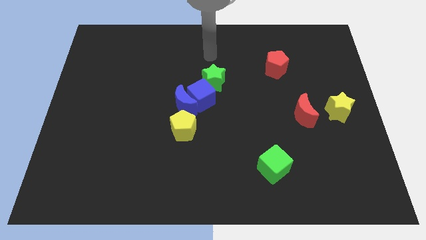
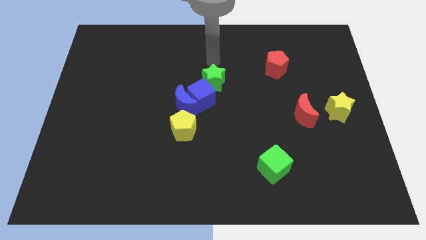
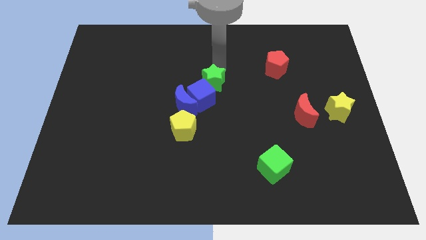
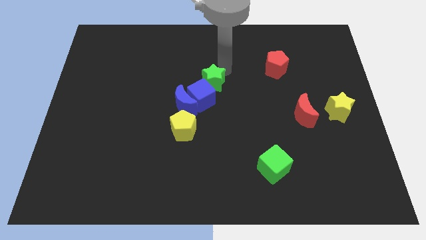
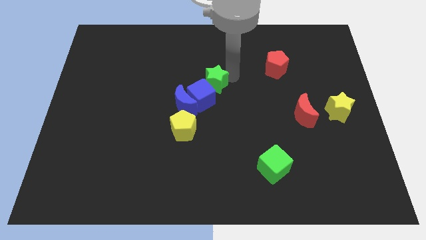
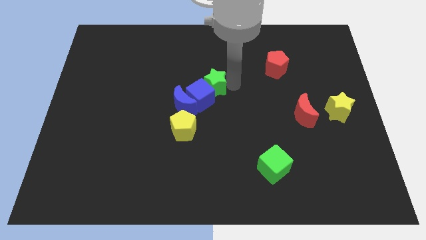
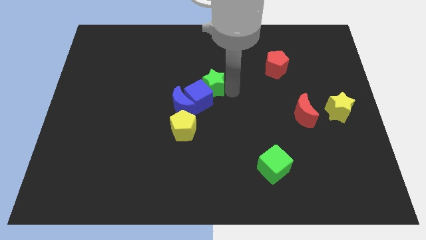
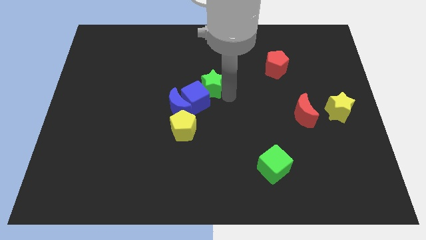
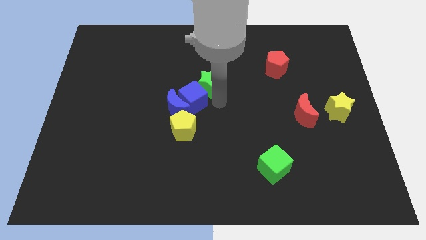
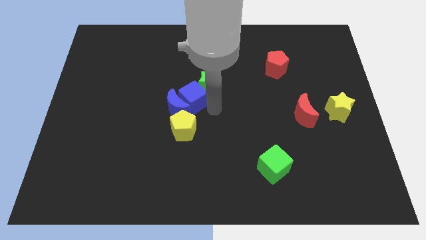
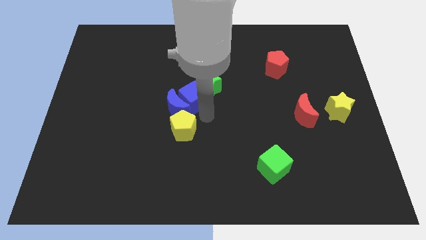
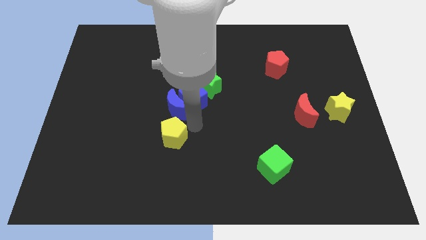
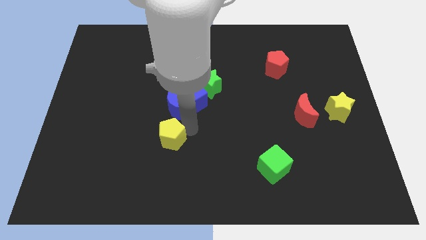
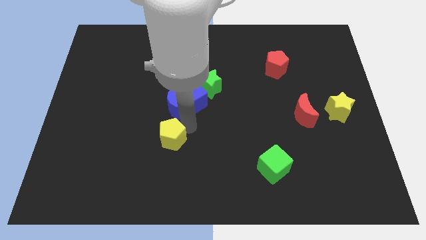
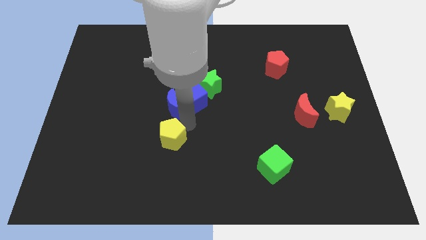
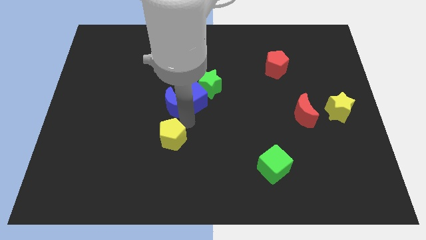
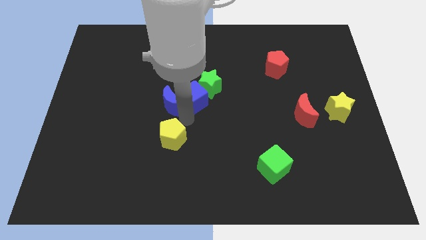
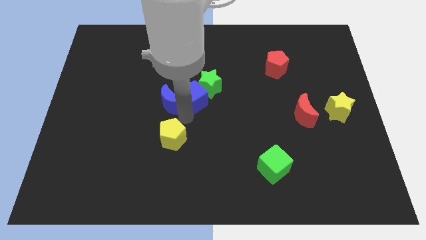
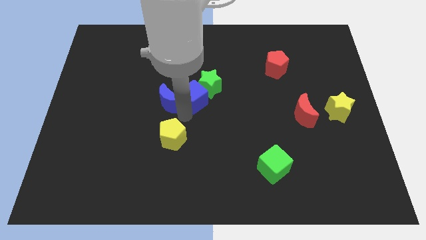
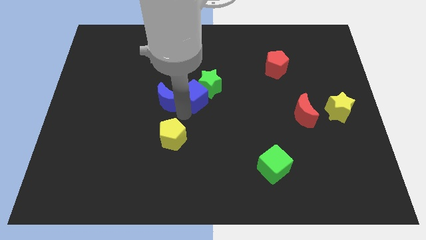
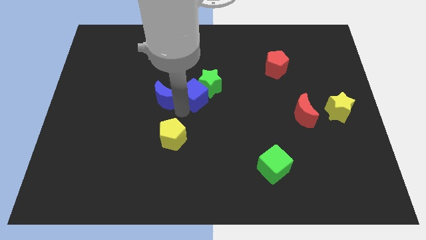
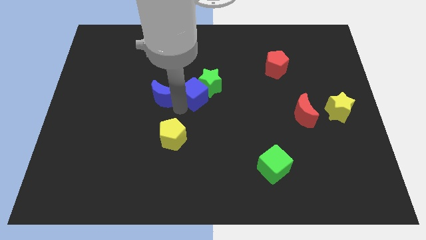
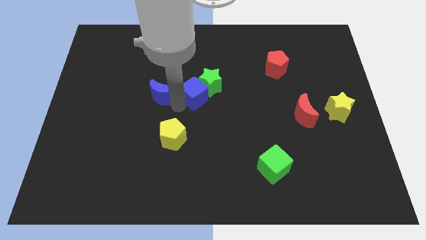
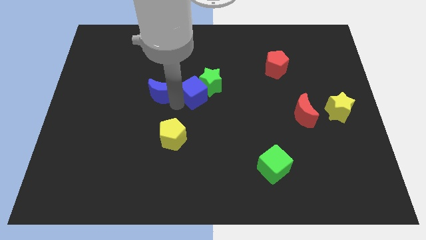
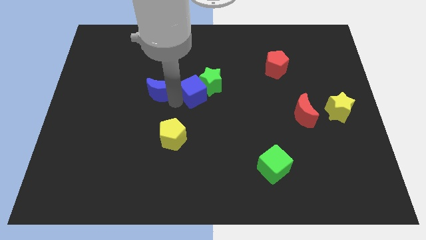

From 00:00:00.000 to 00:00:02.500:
push the blue moon up and to the left a little

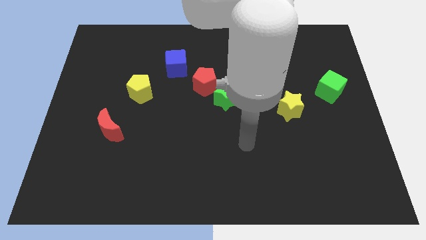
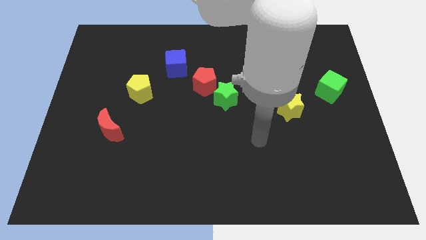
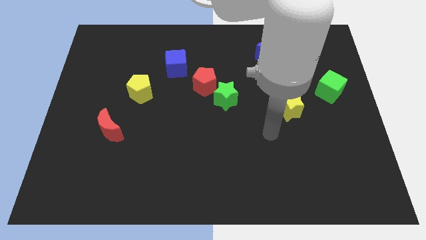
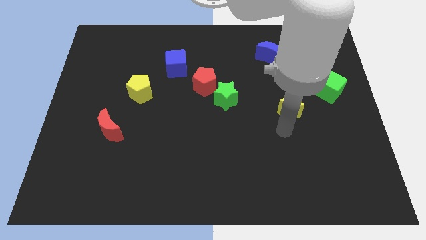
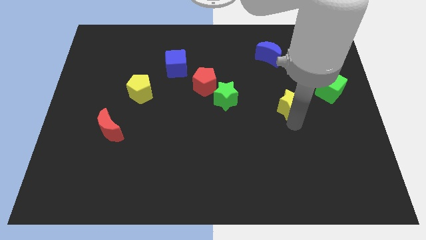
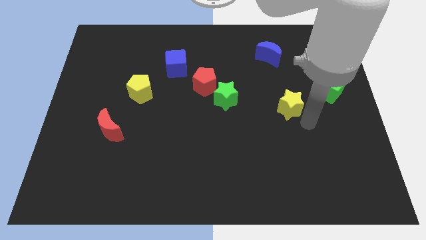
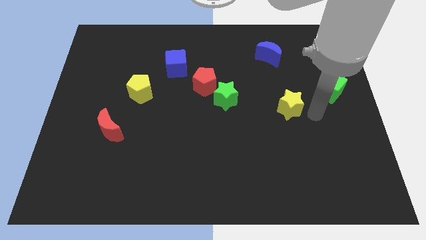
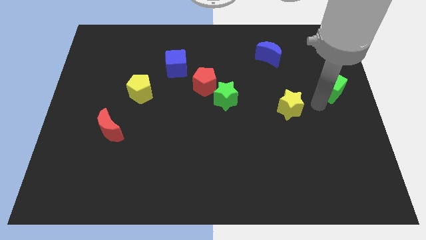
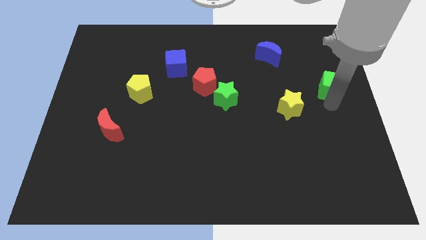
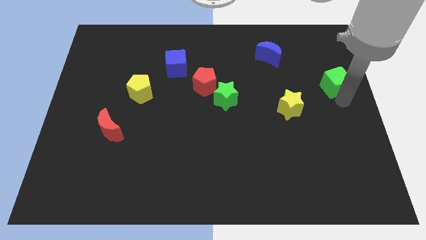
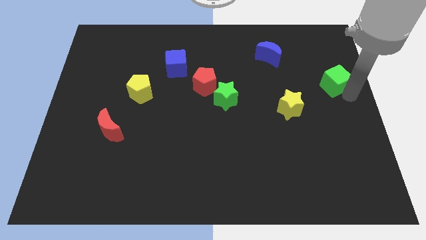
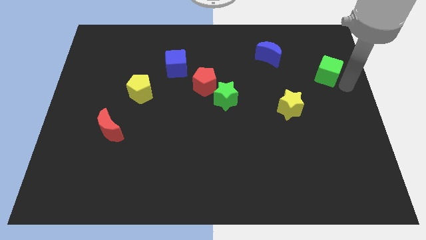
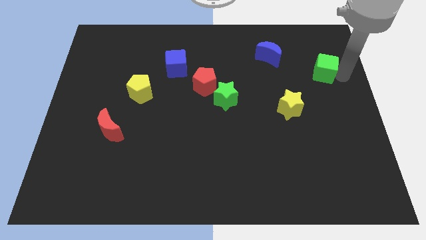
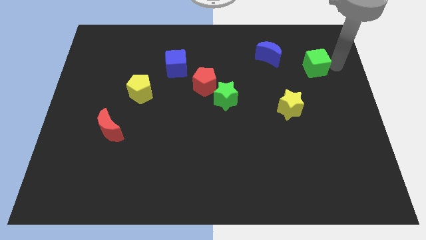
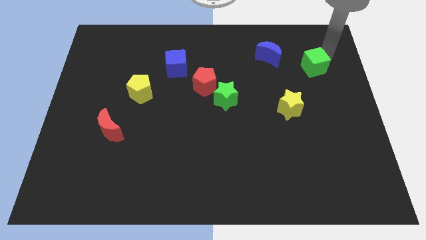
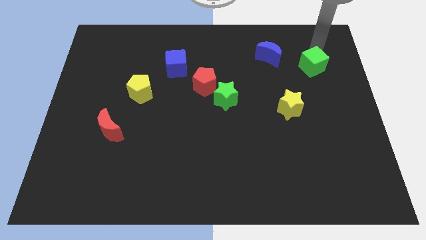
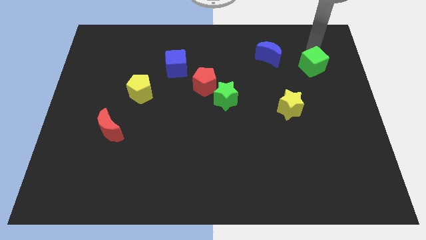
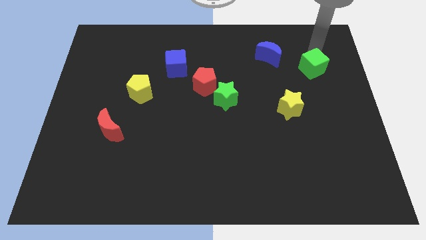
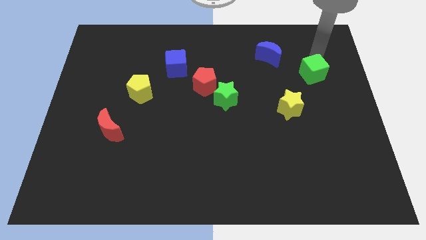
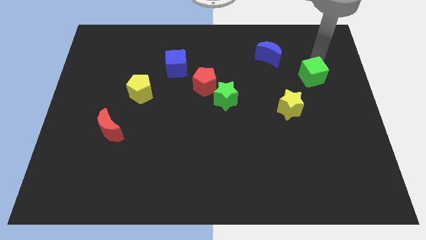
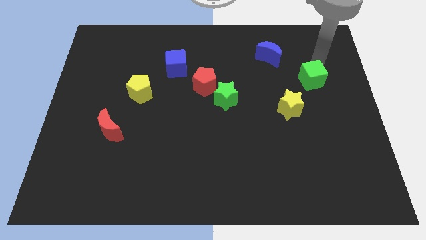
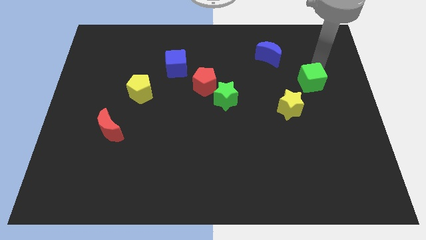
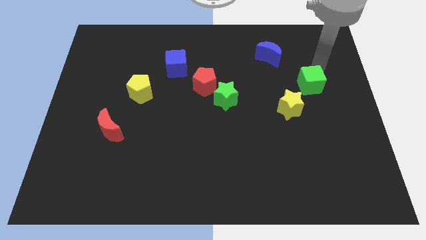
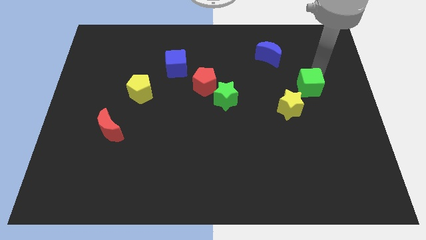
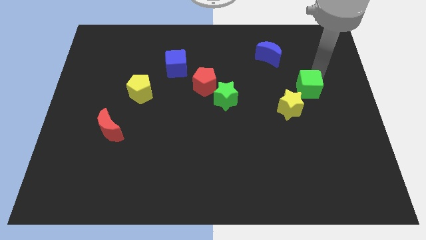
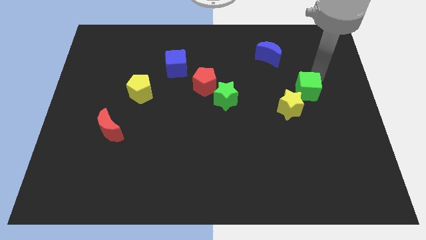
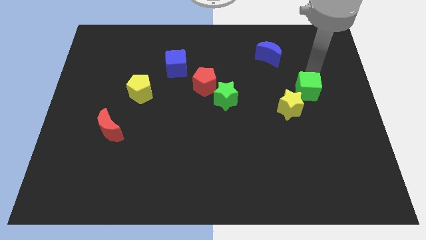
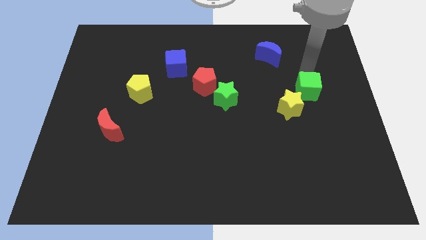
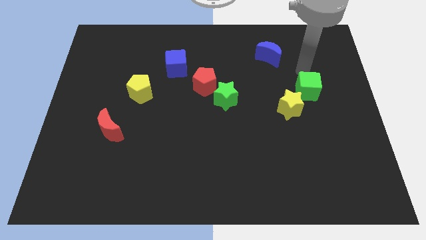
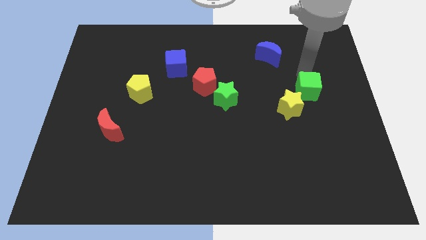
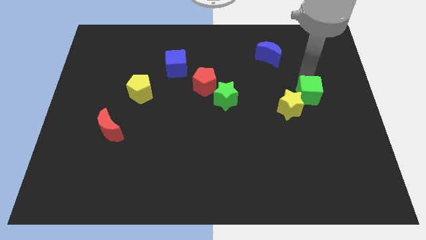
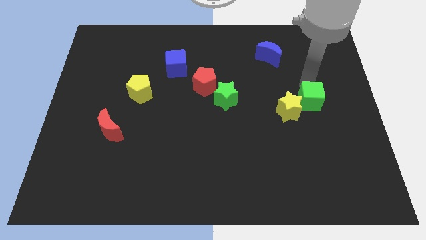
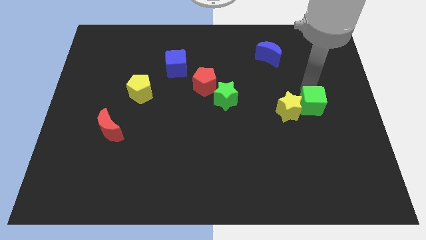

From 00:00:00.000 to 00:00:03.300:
push the green cube somewhat down and then to the left

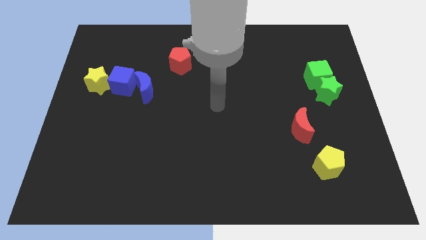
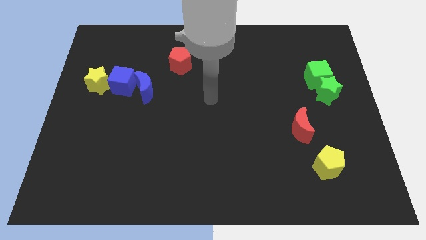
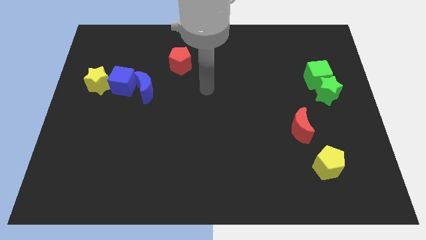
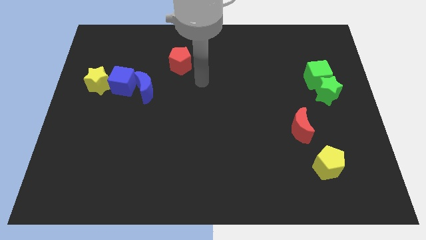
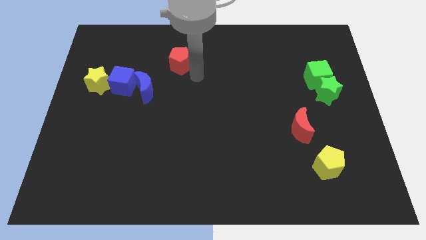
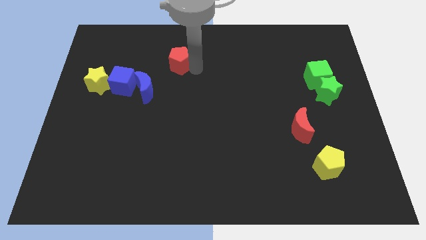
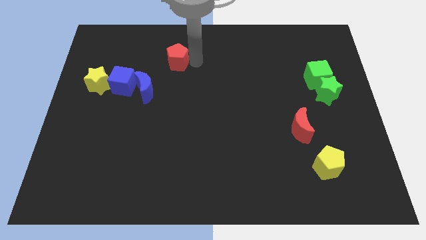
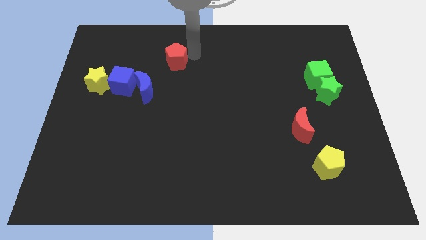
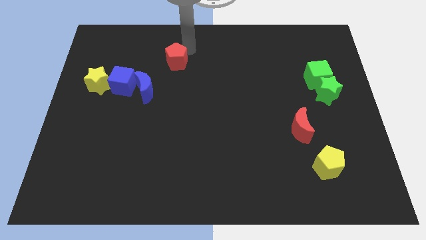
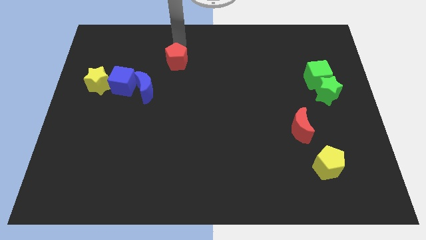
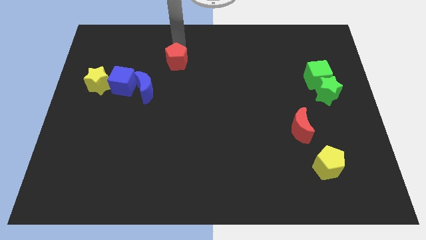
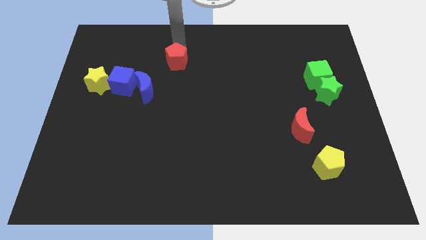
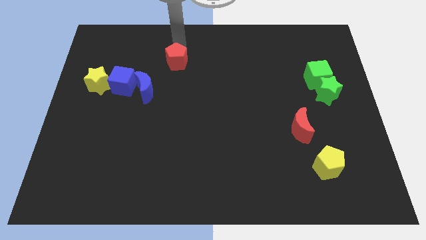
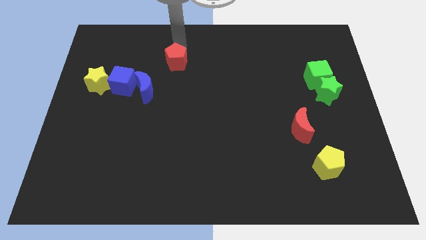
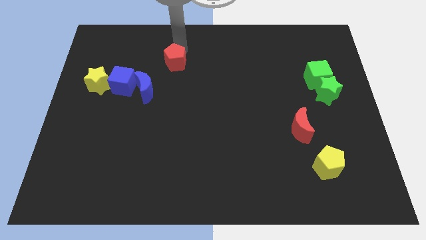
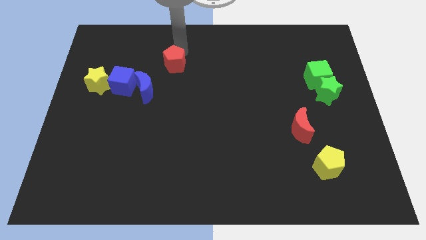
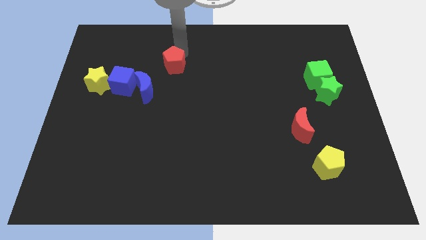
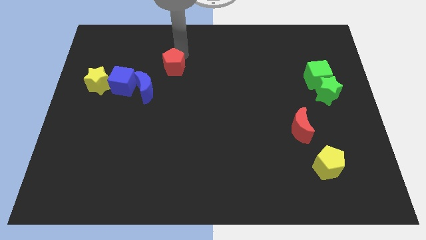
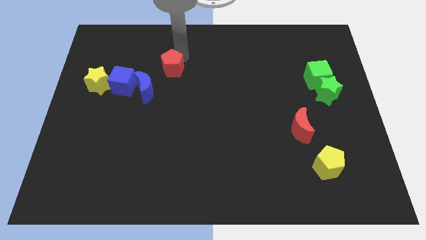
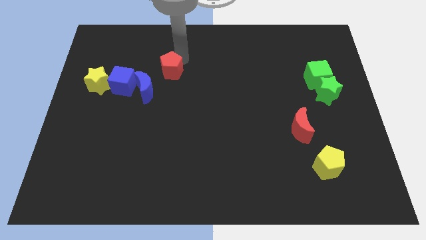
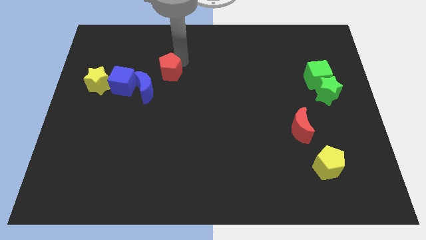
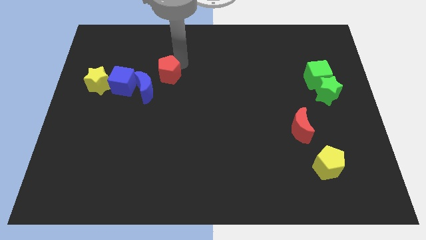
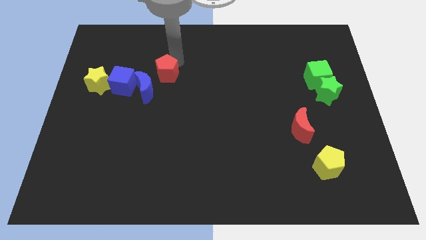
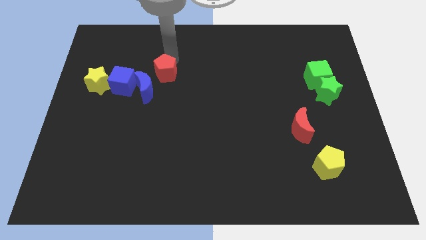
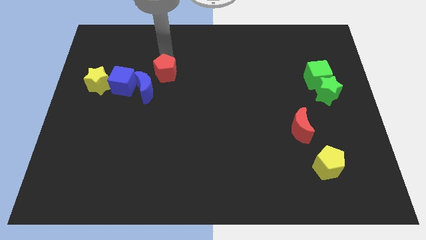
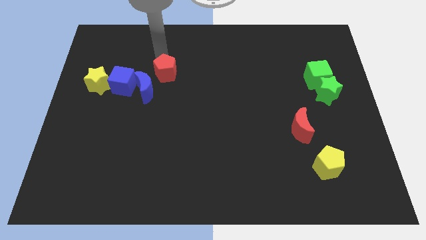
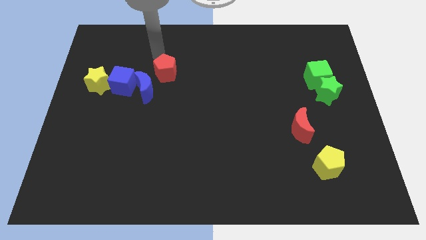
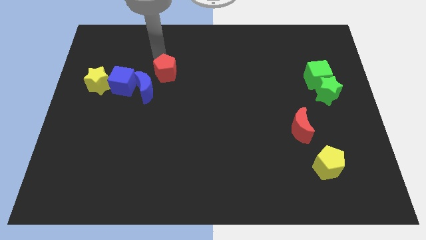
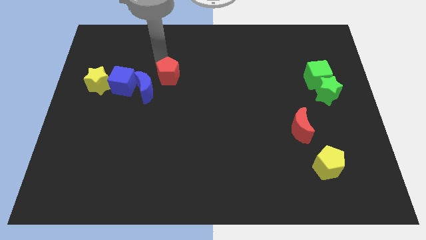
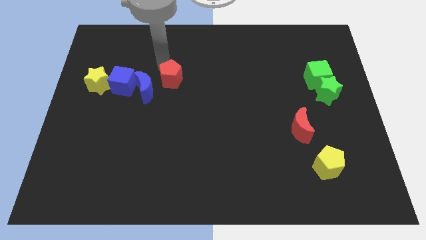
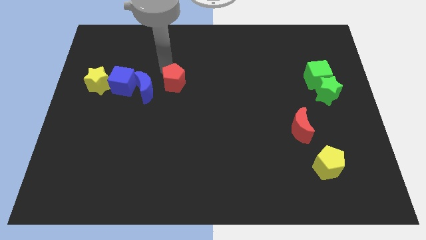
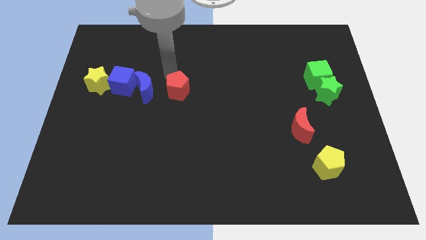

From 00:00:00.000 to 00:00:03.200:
slightly move the red pentagon downwards
